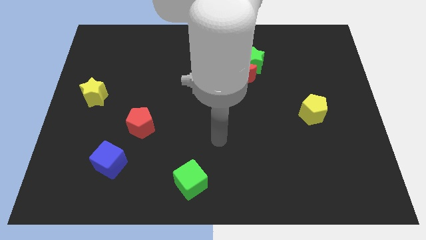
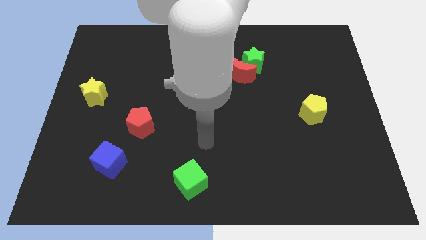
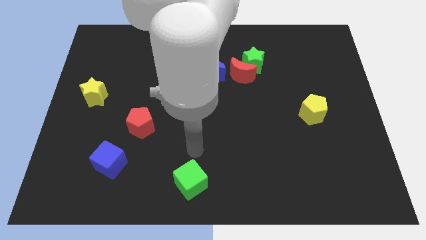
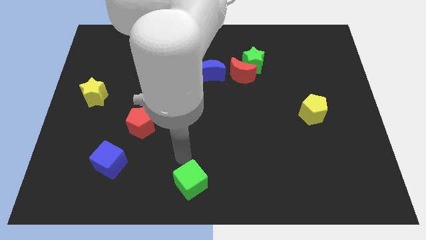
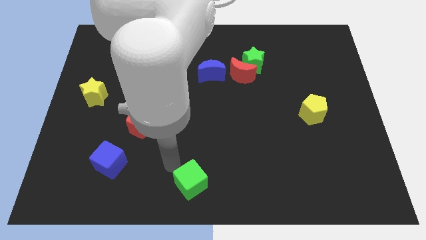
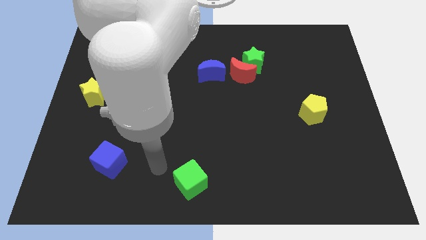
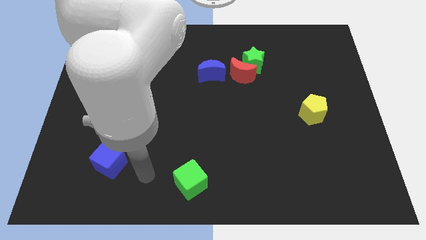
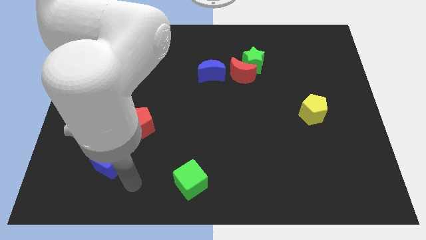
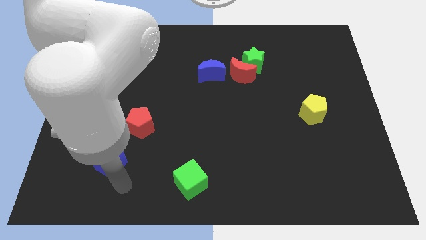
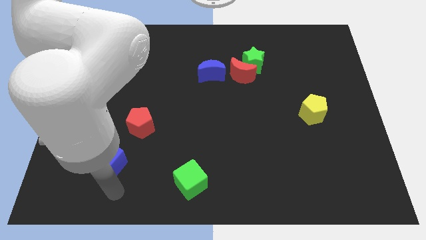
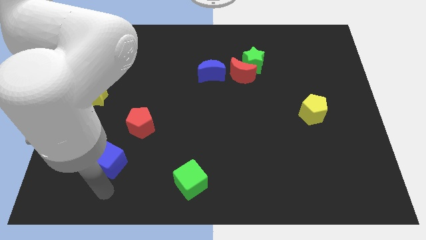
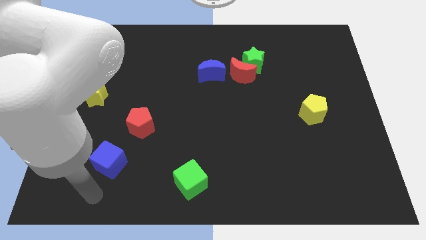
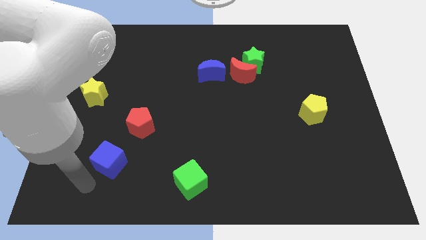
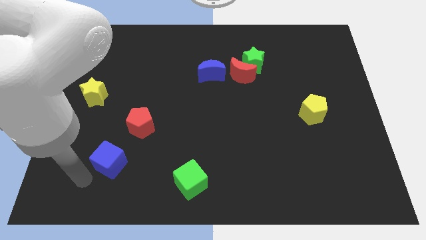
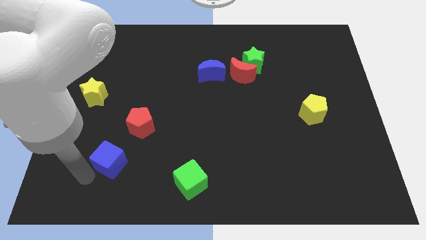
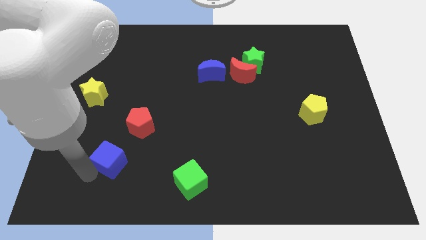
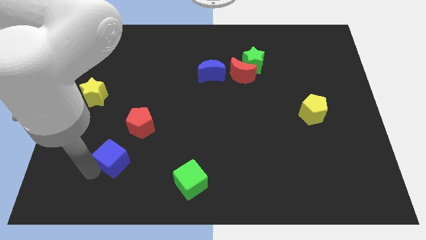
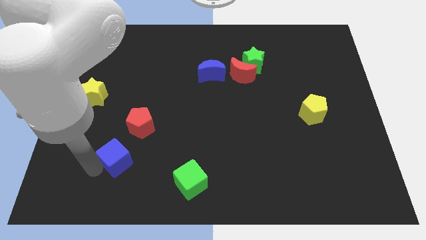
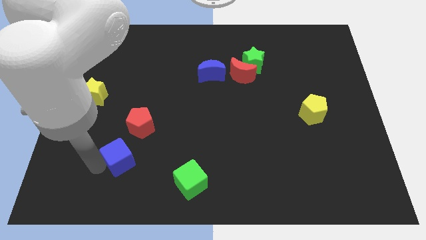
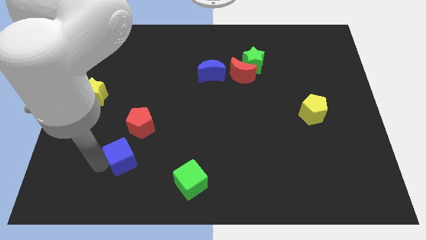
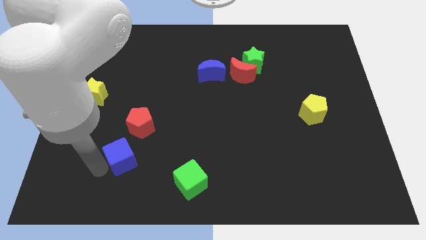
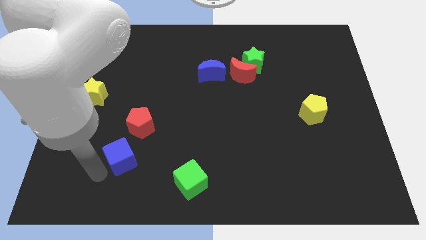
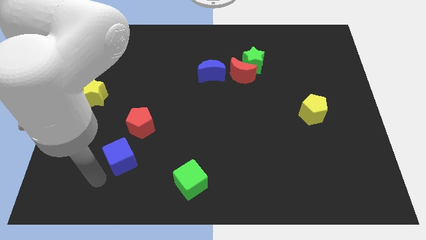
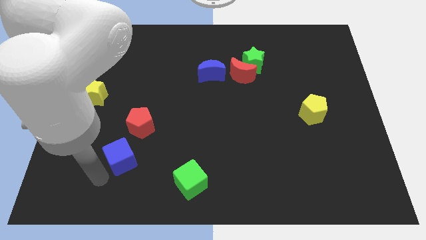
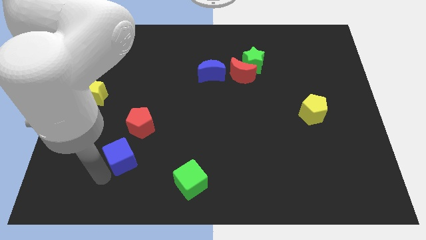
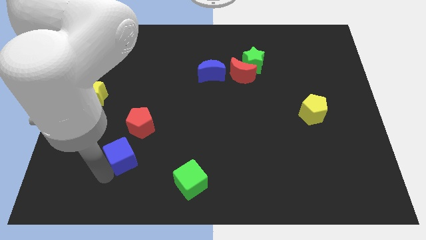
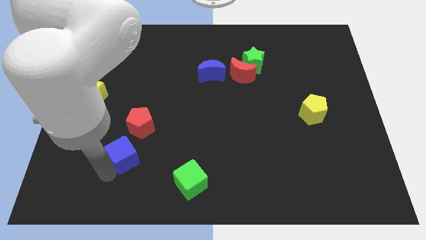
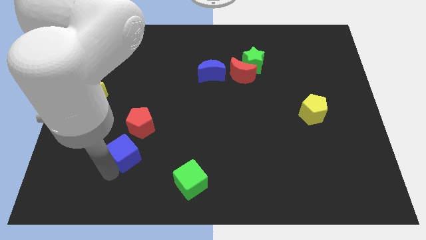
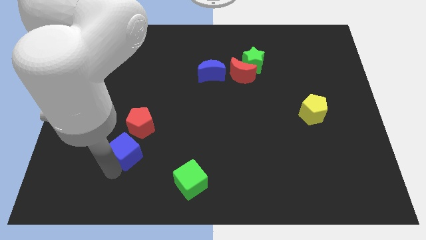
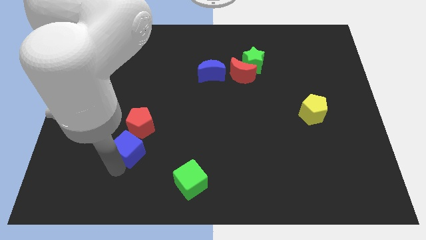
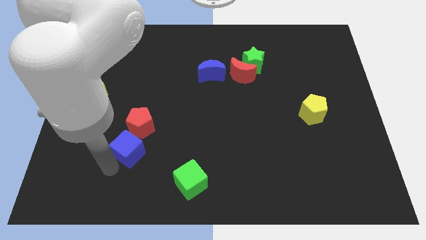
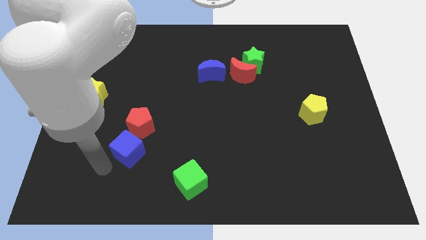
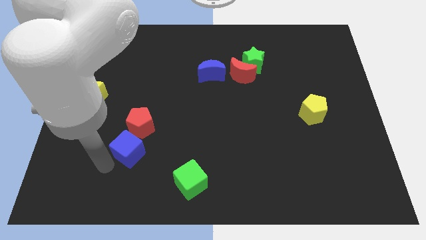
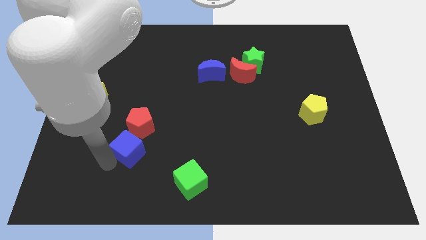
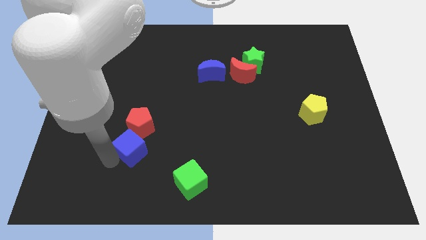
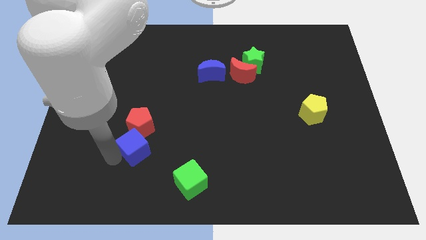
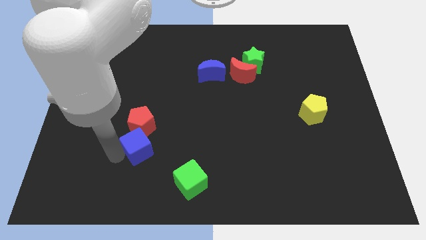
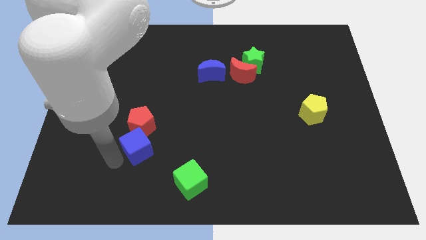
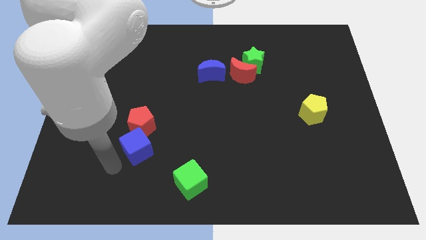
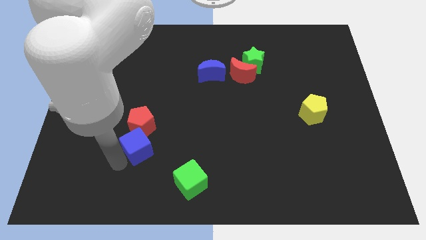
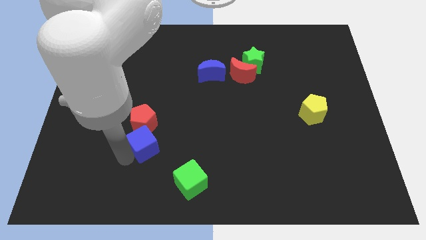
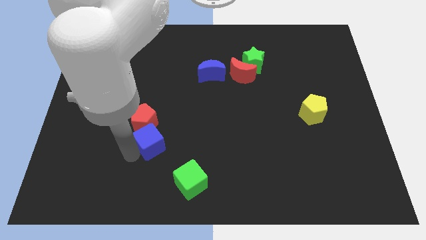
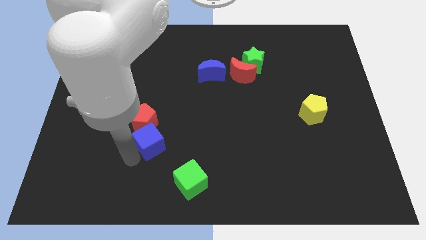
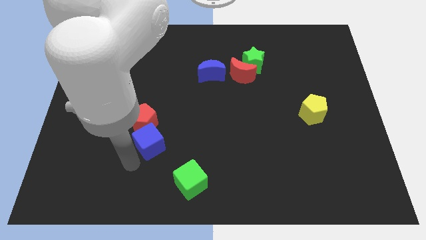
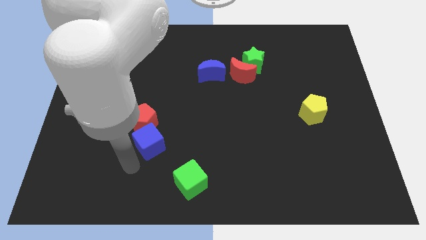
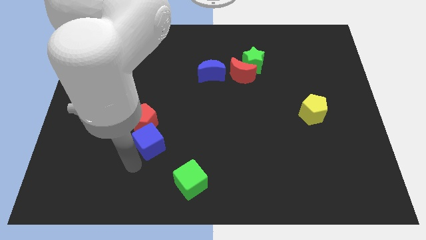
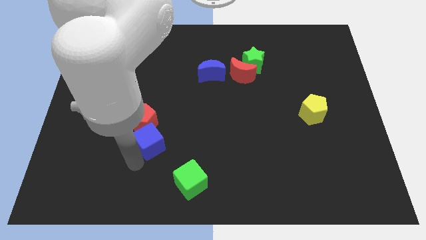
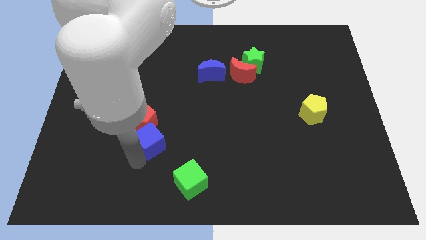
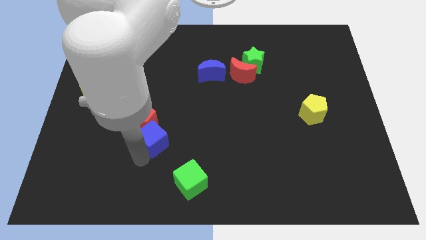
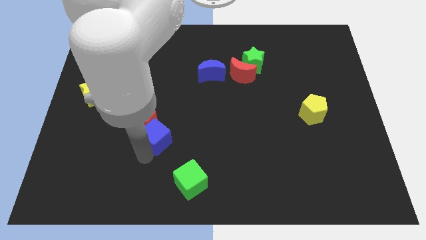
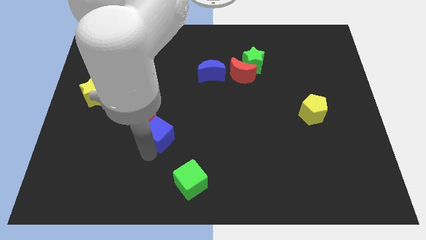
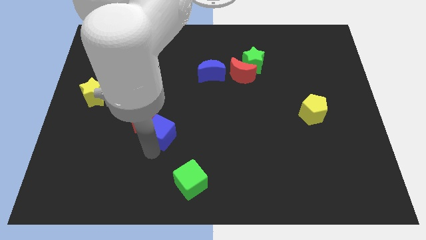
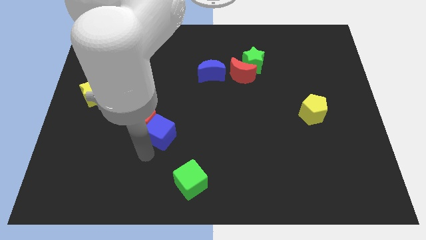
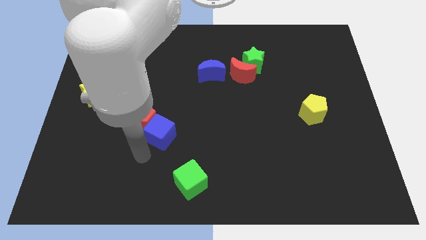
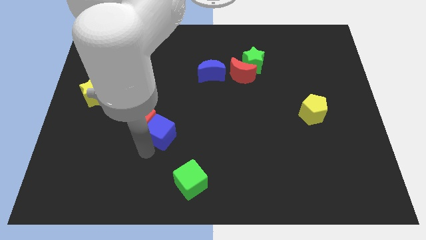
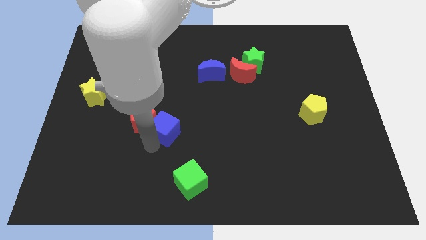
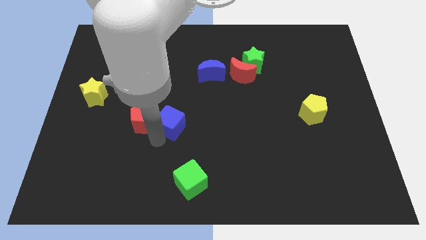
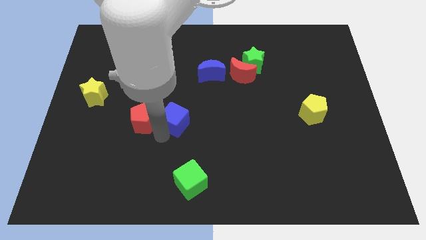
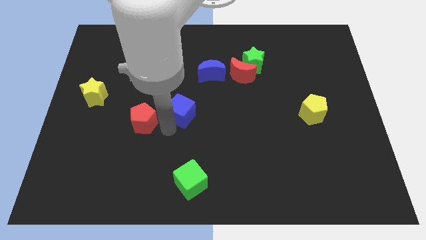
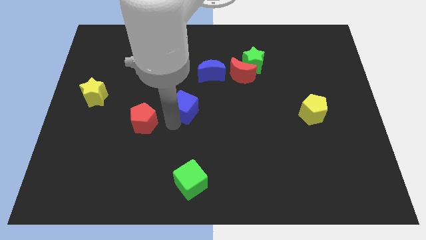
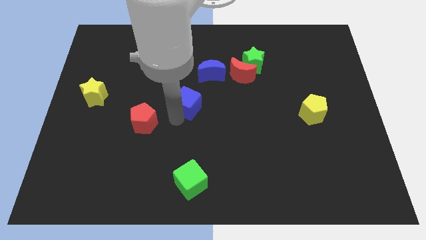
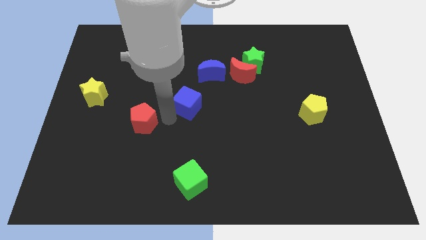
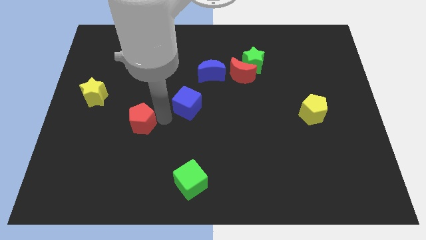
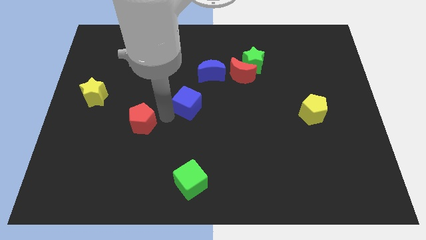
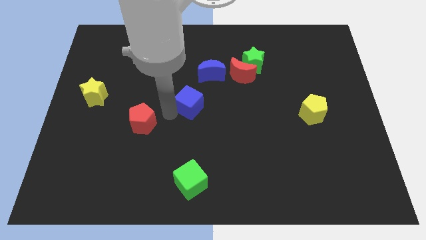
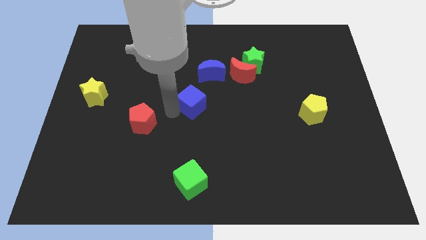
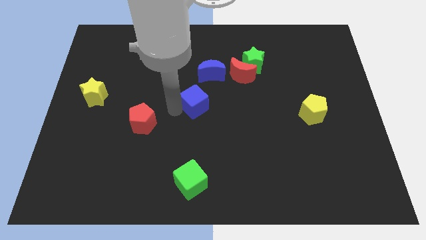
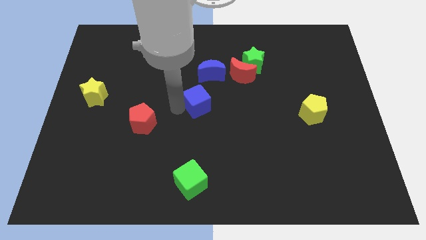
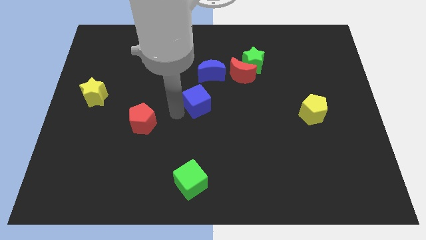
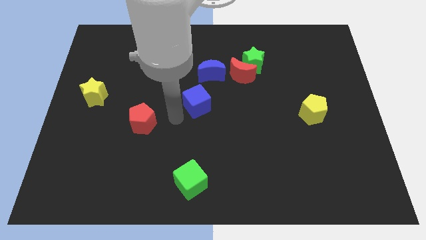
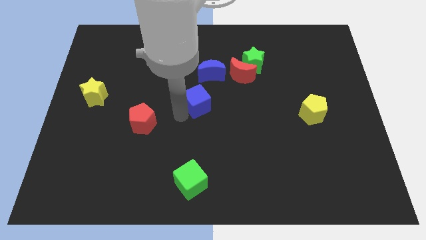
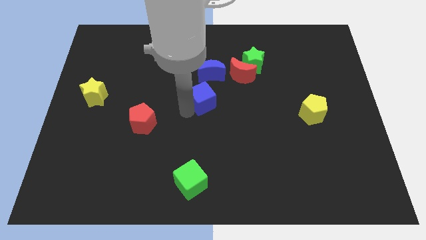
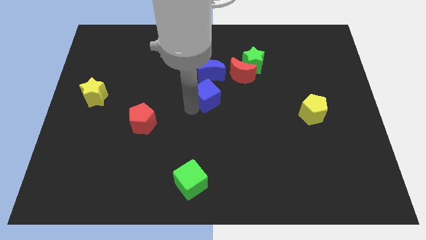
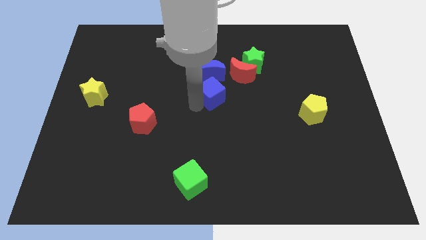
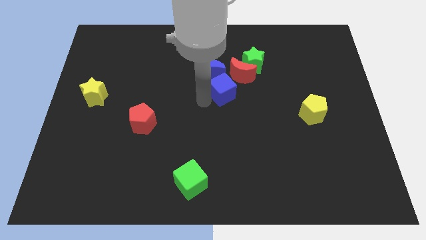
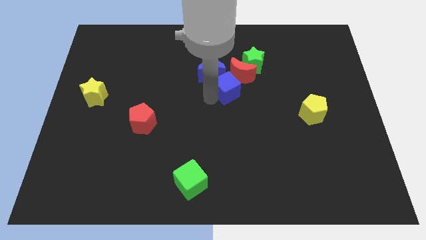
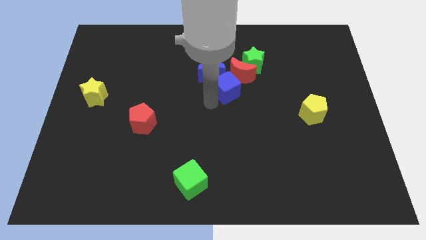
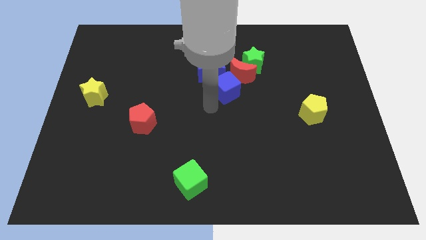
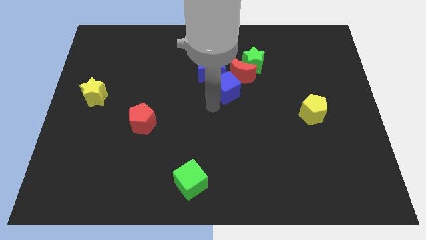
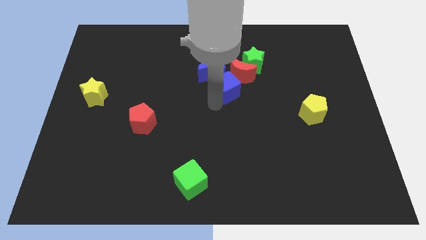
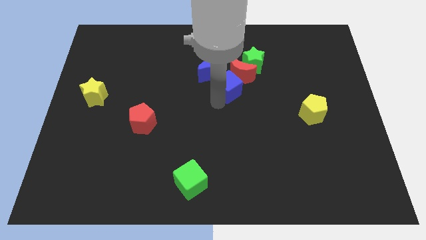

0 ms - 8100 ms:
put the blue cube towards the red moon
